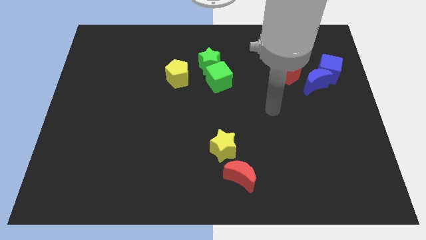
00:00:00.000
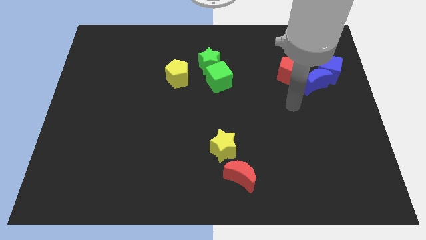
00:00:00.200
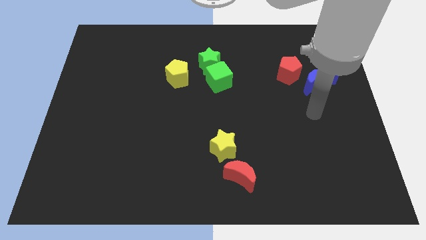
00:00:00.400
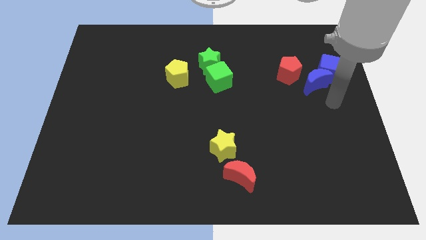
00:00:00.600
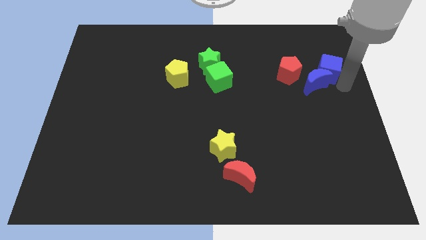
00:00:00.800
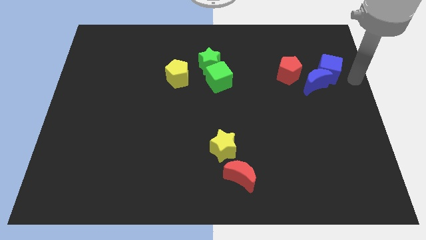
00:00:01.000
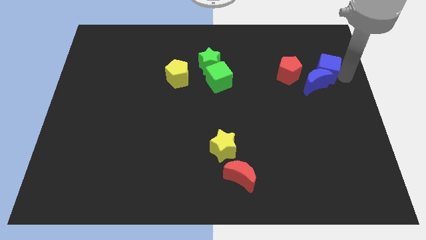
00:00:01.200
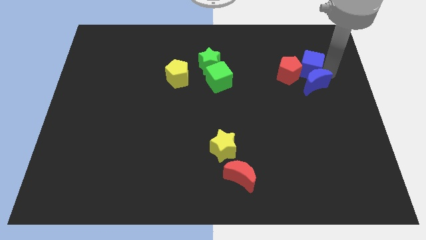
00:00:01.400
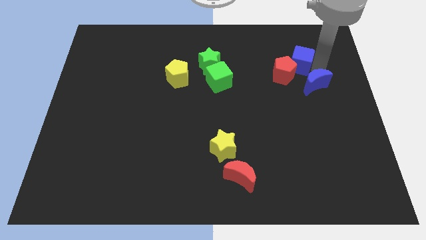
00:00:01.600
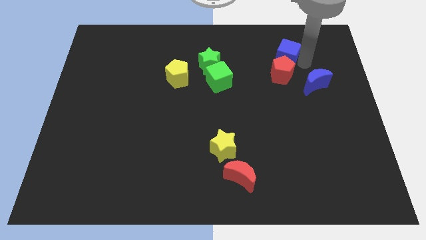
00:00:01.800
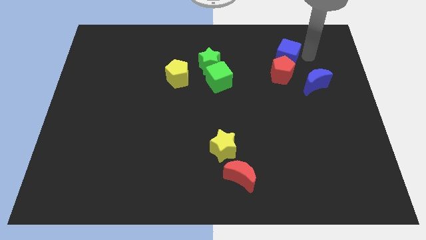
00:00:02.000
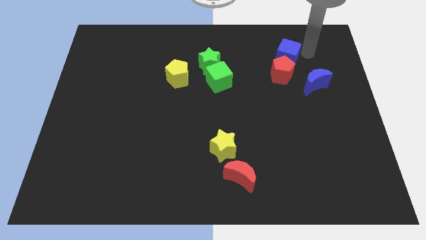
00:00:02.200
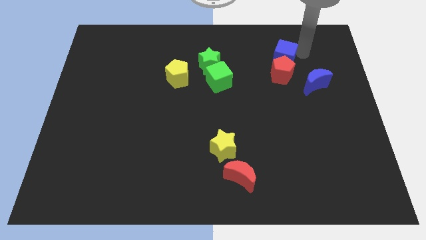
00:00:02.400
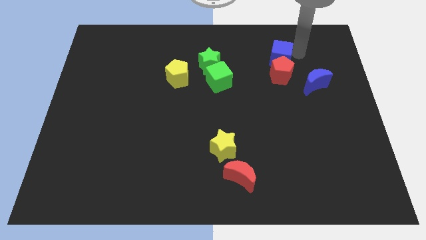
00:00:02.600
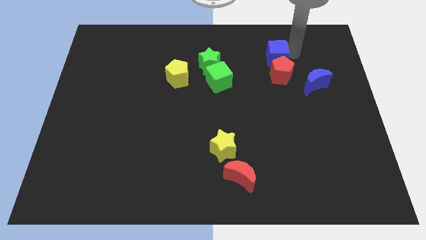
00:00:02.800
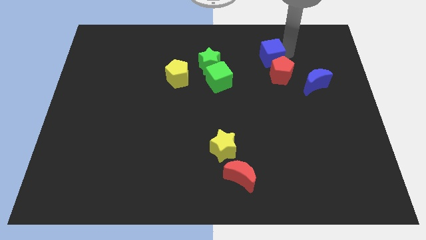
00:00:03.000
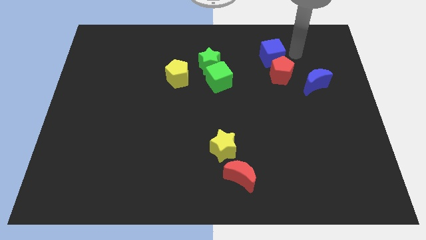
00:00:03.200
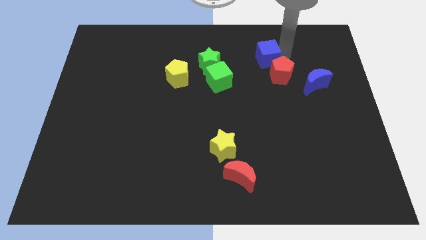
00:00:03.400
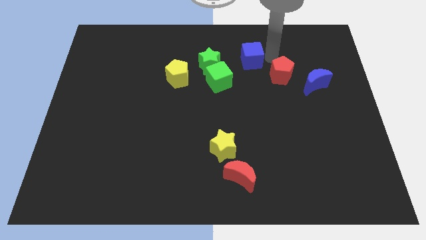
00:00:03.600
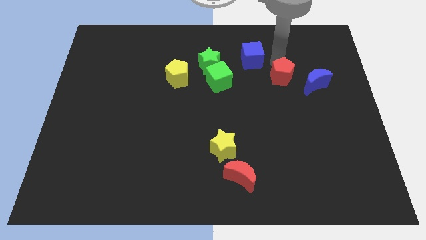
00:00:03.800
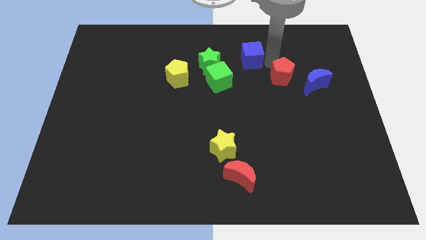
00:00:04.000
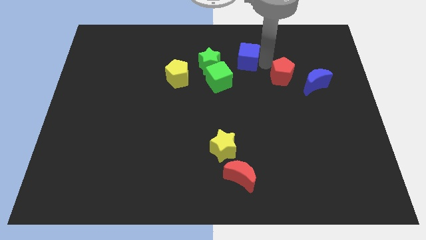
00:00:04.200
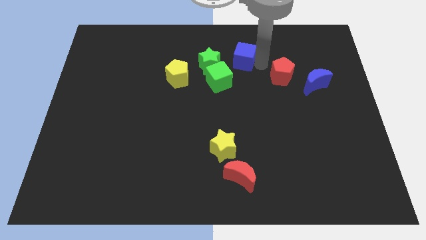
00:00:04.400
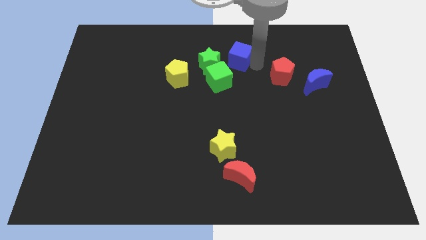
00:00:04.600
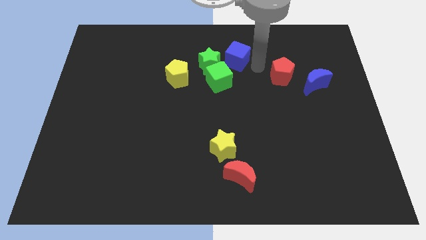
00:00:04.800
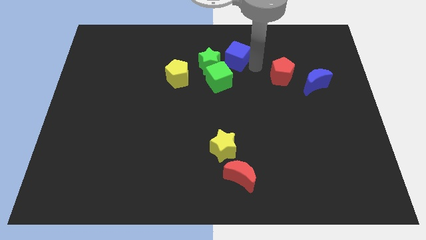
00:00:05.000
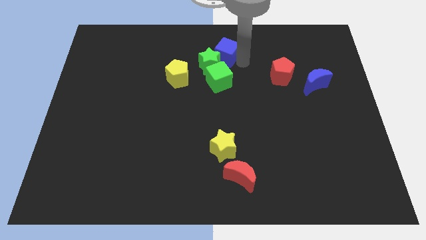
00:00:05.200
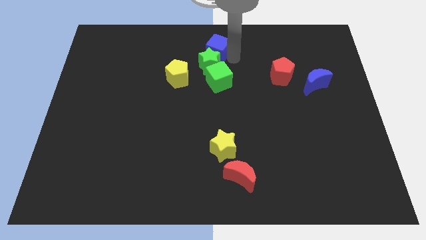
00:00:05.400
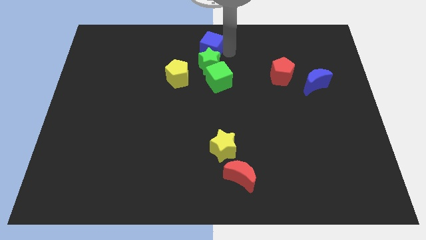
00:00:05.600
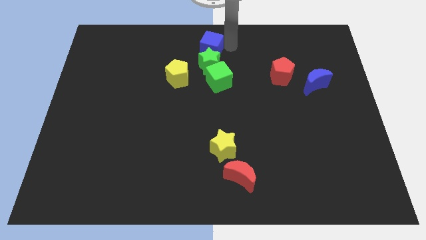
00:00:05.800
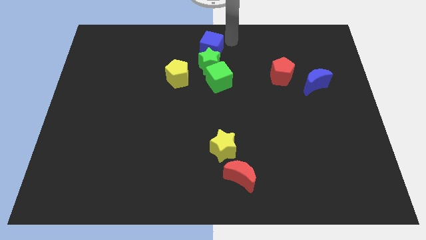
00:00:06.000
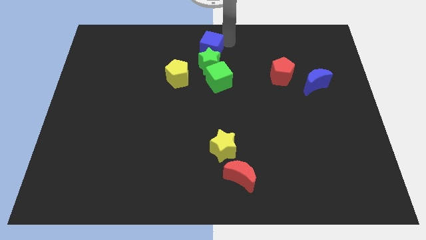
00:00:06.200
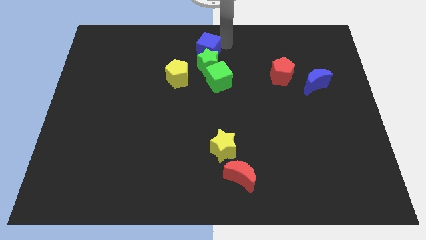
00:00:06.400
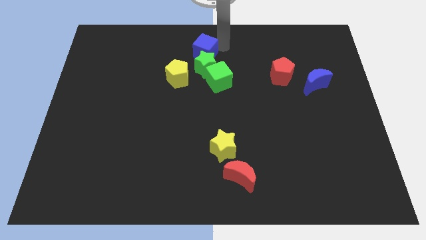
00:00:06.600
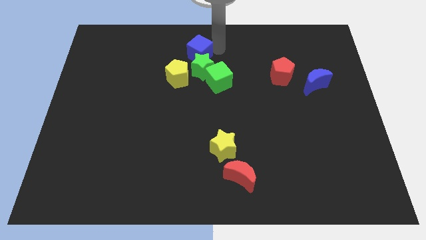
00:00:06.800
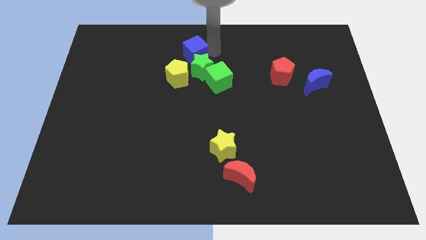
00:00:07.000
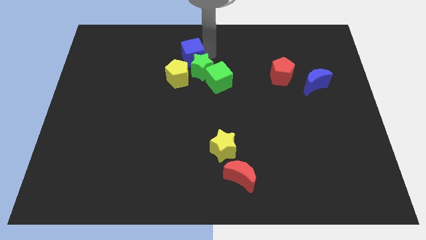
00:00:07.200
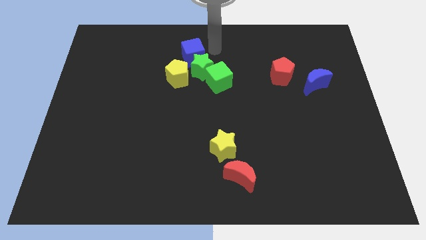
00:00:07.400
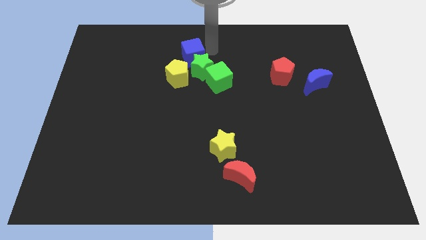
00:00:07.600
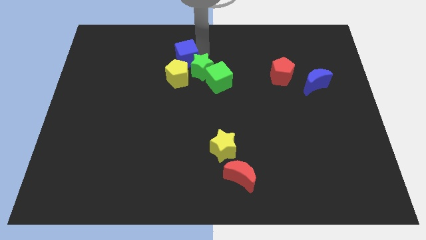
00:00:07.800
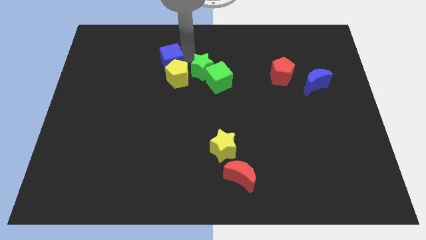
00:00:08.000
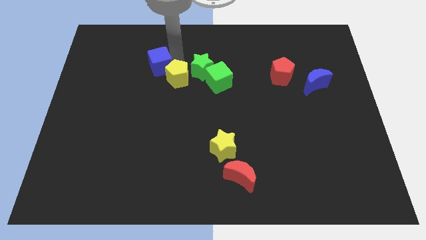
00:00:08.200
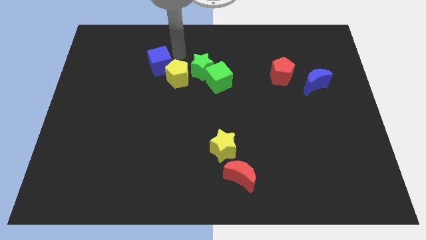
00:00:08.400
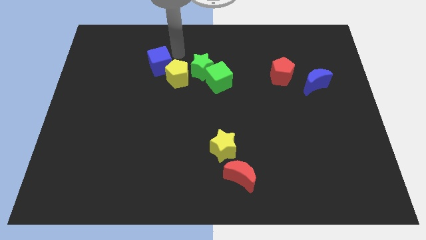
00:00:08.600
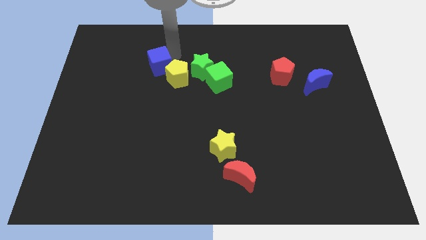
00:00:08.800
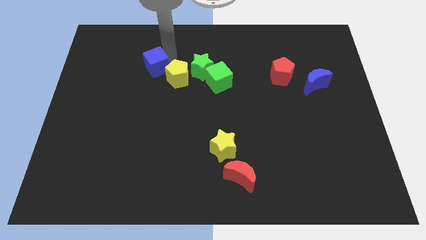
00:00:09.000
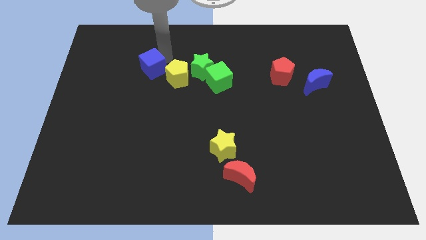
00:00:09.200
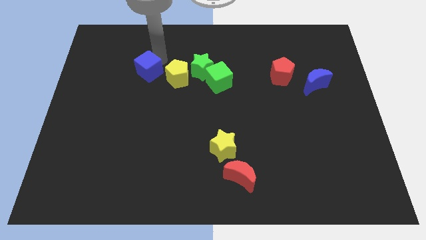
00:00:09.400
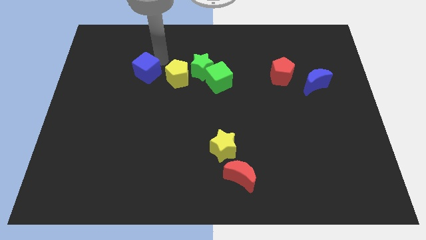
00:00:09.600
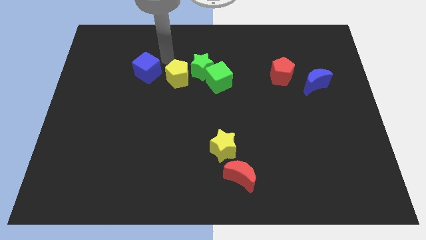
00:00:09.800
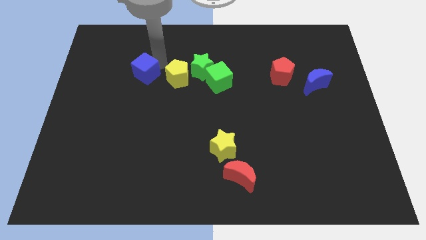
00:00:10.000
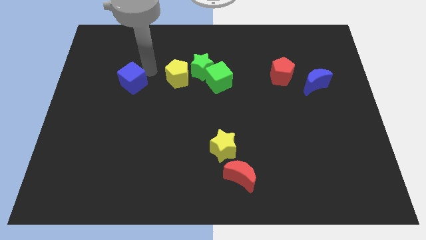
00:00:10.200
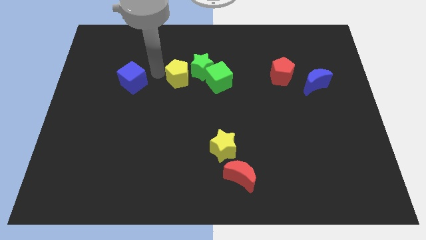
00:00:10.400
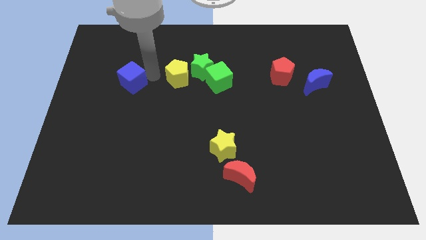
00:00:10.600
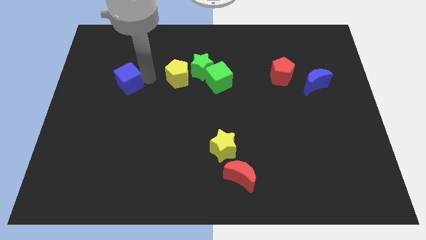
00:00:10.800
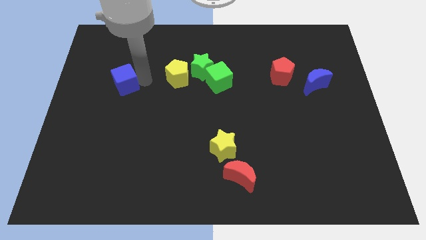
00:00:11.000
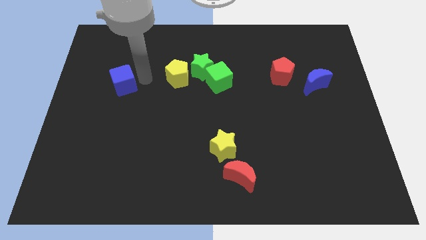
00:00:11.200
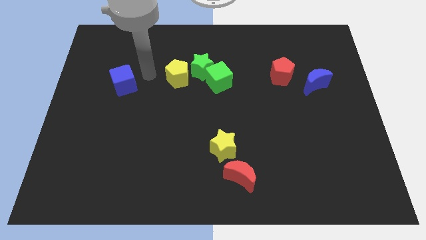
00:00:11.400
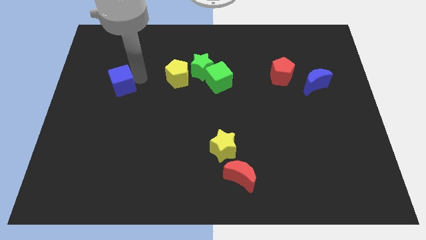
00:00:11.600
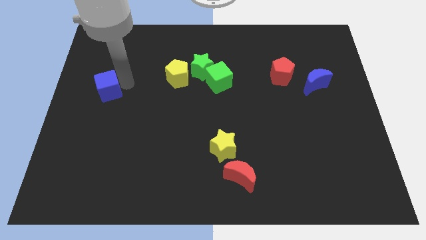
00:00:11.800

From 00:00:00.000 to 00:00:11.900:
slide the blue cube to the left side of the board

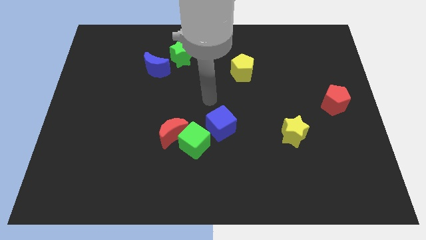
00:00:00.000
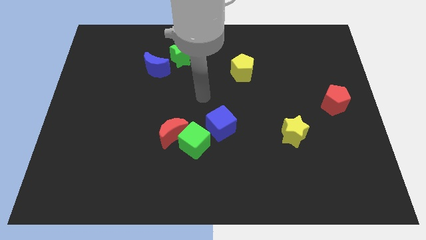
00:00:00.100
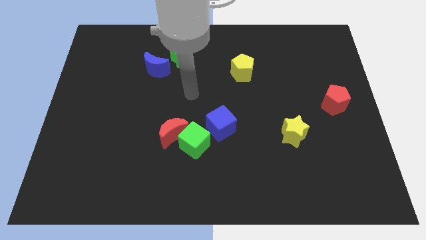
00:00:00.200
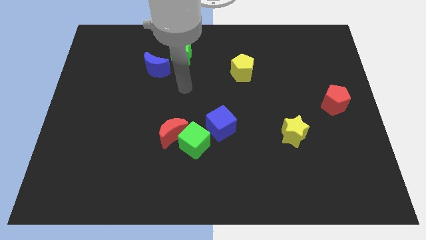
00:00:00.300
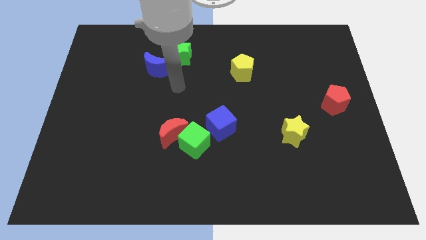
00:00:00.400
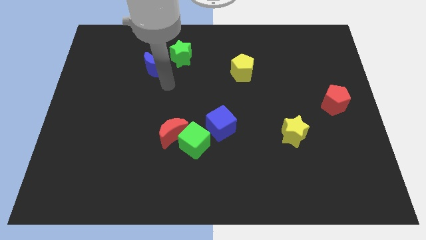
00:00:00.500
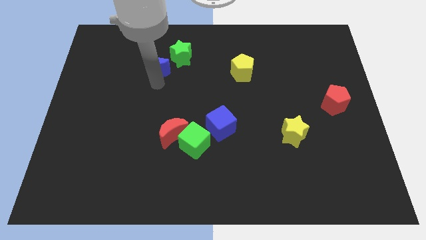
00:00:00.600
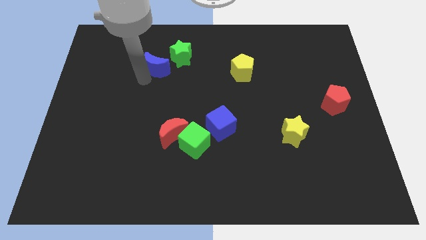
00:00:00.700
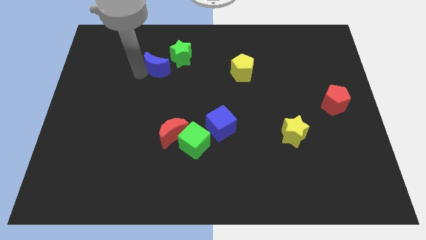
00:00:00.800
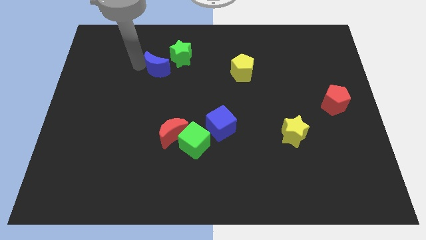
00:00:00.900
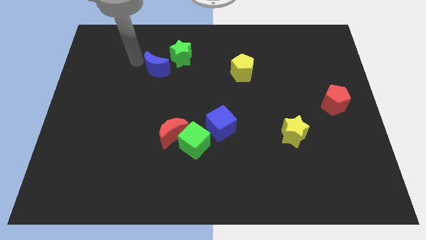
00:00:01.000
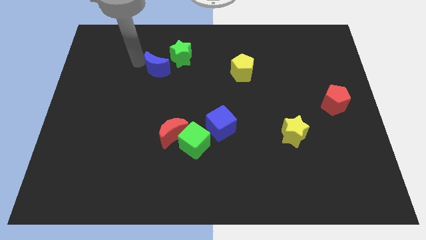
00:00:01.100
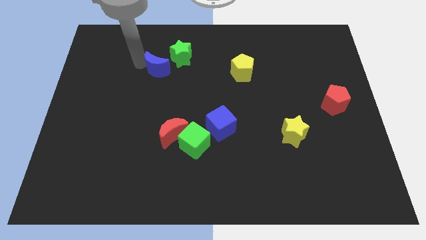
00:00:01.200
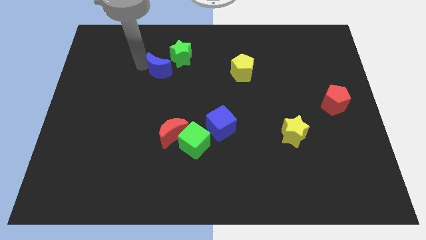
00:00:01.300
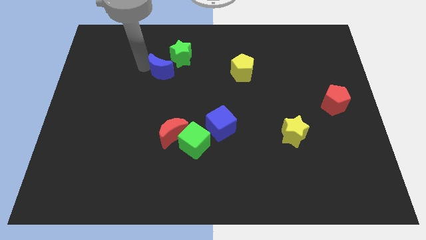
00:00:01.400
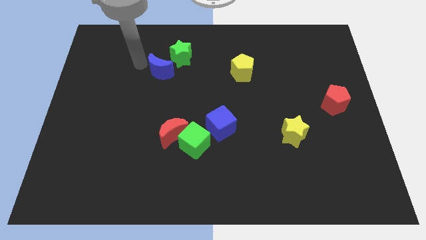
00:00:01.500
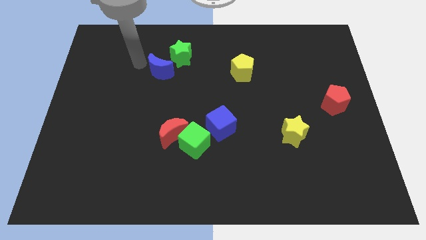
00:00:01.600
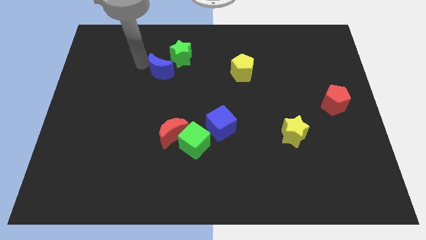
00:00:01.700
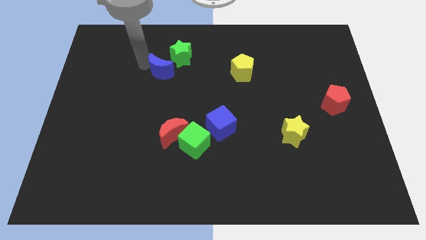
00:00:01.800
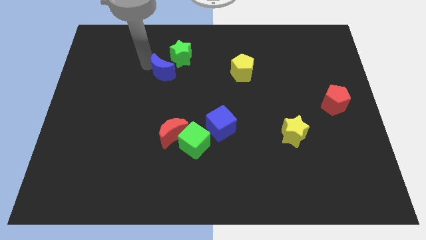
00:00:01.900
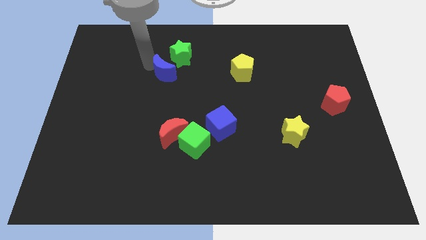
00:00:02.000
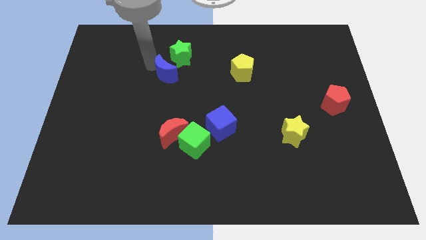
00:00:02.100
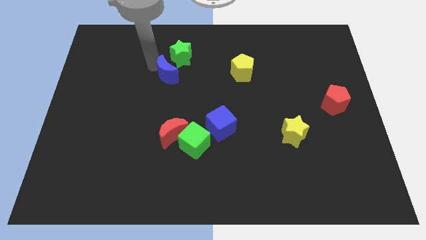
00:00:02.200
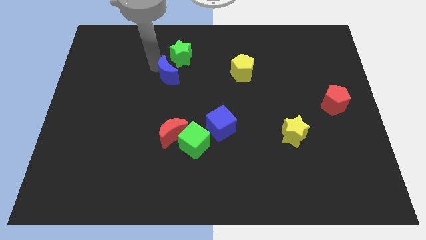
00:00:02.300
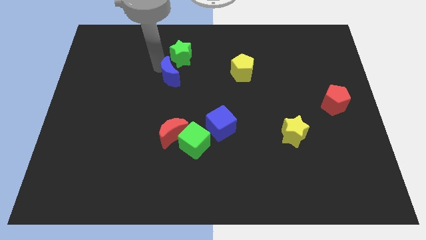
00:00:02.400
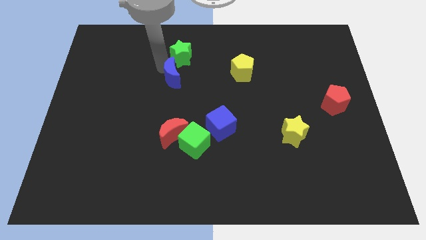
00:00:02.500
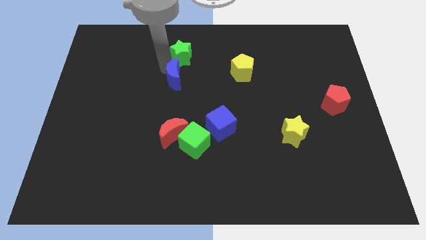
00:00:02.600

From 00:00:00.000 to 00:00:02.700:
put the blue moon to the middle of the board
